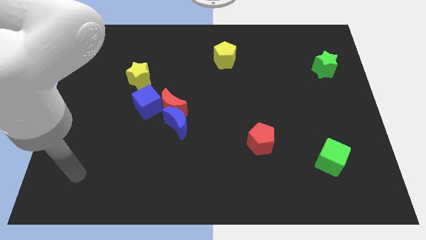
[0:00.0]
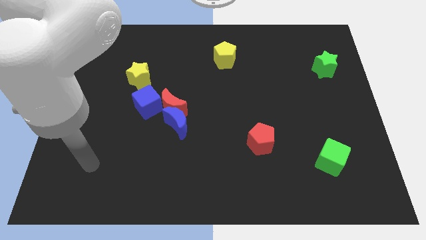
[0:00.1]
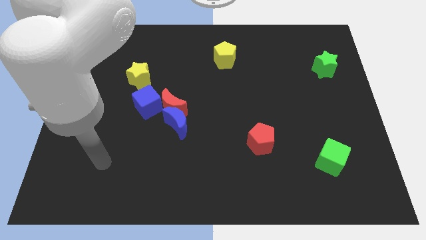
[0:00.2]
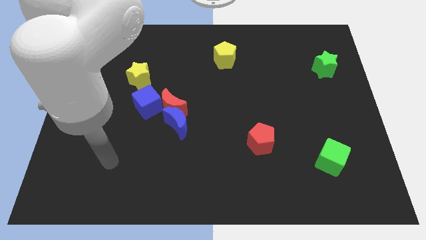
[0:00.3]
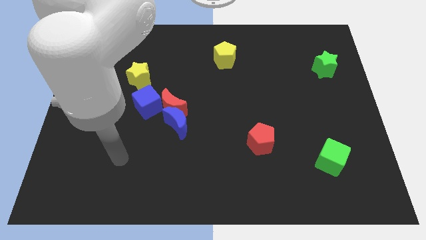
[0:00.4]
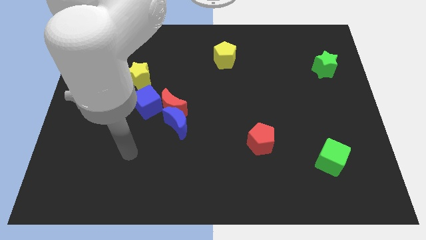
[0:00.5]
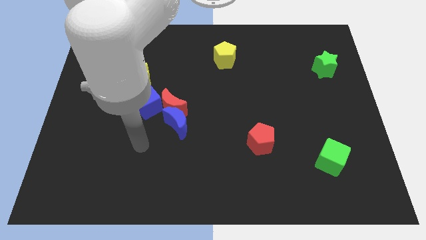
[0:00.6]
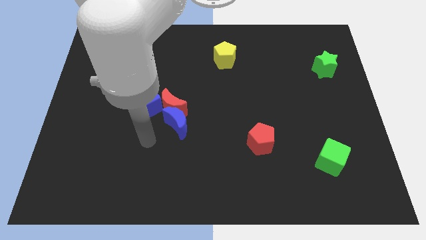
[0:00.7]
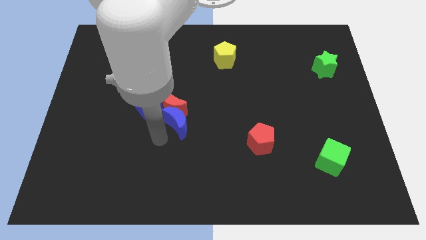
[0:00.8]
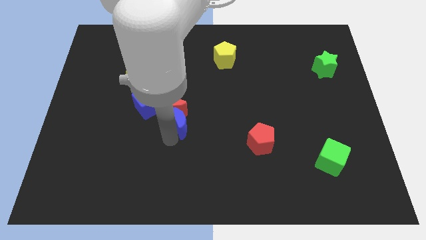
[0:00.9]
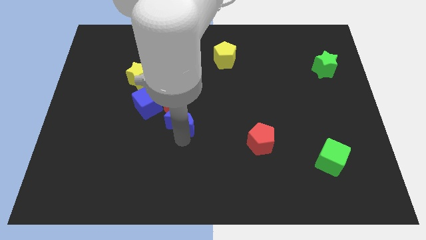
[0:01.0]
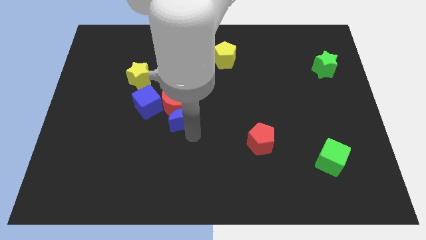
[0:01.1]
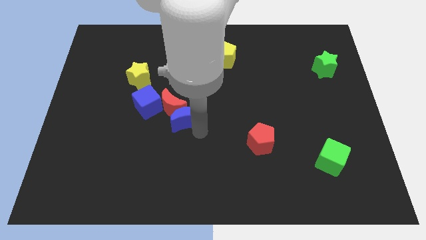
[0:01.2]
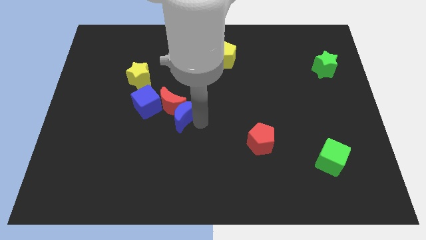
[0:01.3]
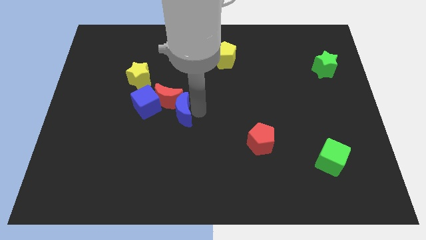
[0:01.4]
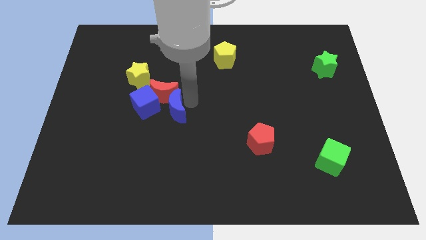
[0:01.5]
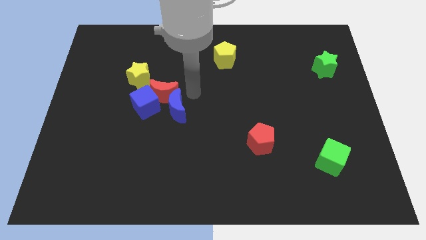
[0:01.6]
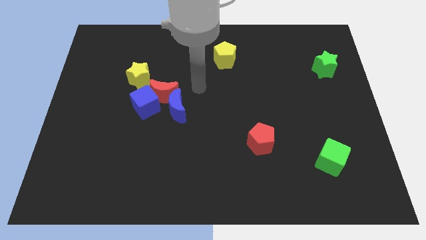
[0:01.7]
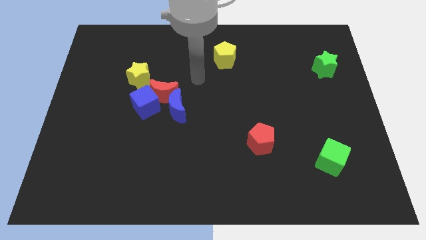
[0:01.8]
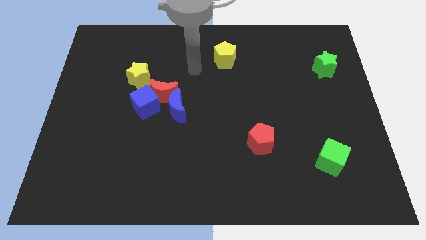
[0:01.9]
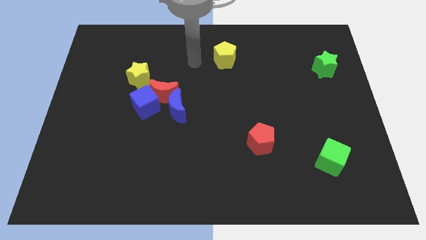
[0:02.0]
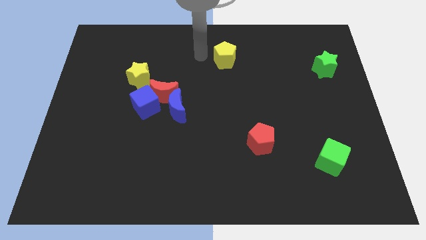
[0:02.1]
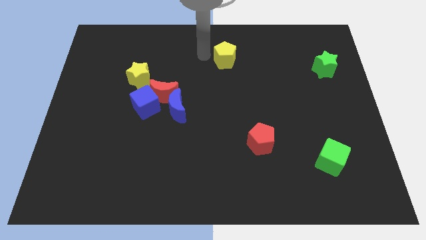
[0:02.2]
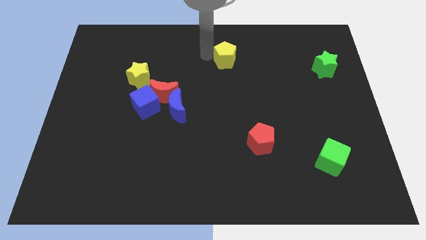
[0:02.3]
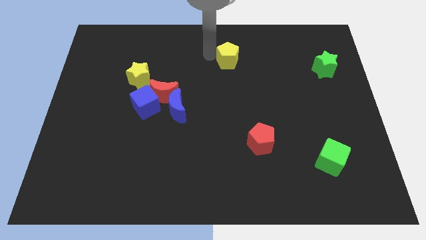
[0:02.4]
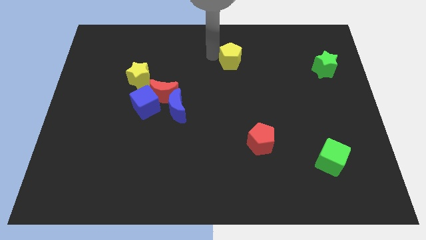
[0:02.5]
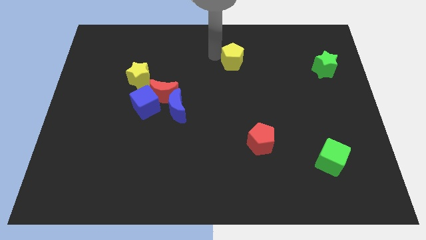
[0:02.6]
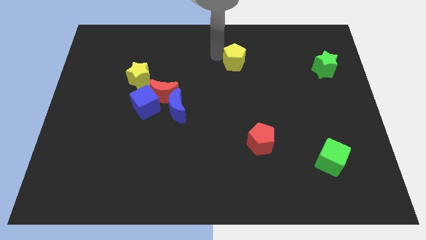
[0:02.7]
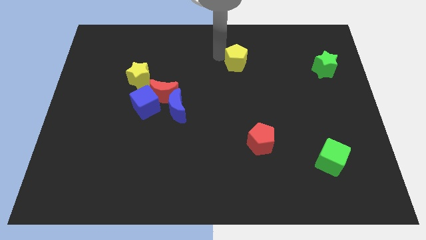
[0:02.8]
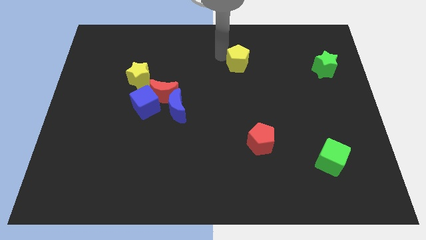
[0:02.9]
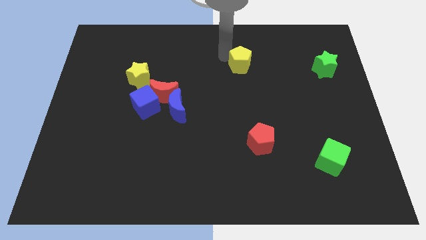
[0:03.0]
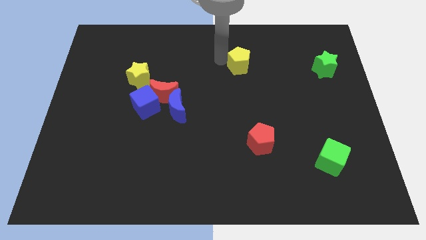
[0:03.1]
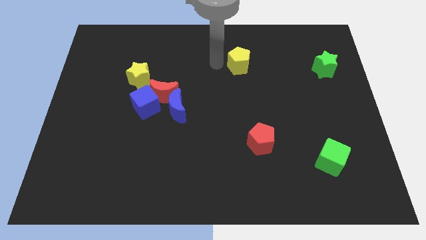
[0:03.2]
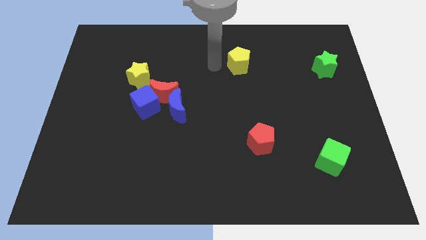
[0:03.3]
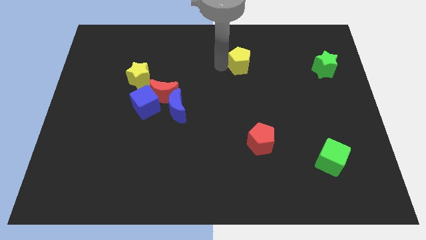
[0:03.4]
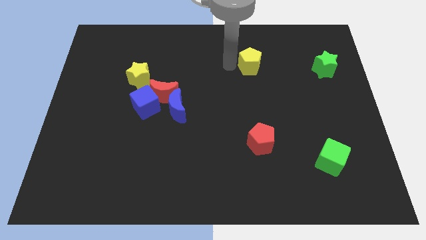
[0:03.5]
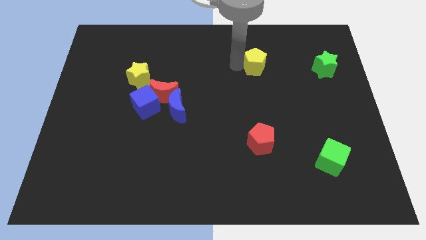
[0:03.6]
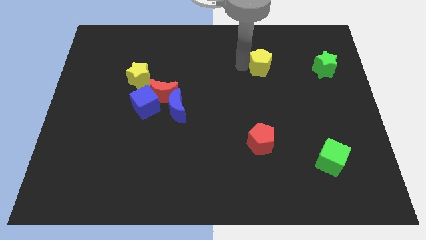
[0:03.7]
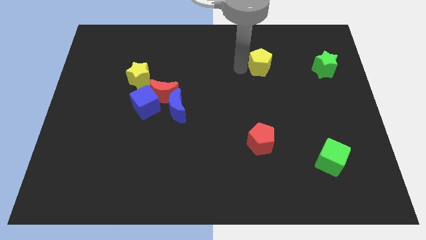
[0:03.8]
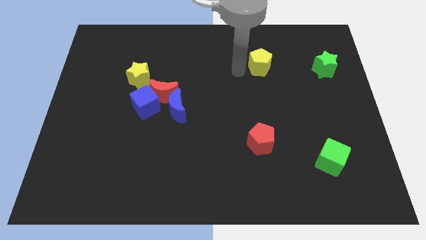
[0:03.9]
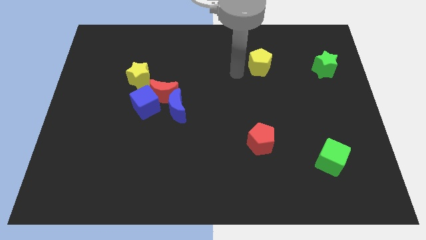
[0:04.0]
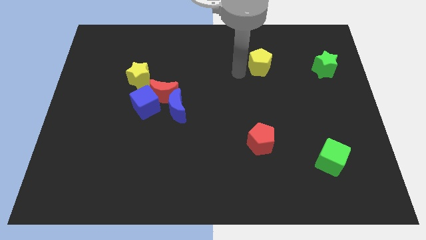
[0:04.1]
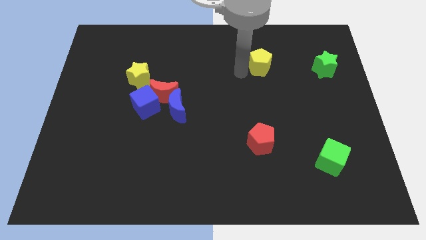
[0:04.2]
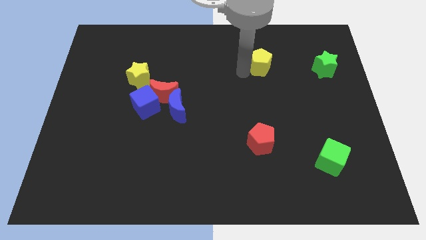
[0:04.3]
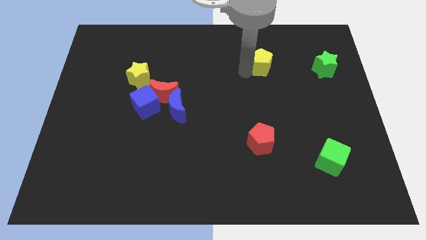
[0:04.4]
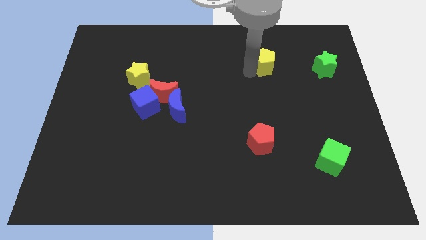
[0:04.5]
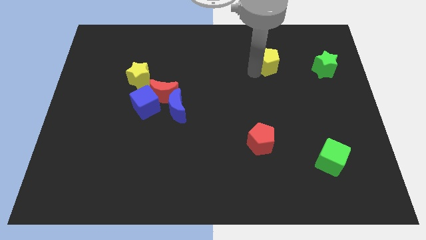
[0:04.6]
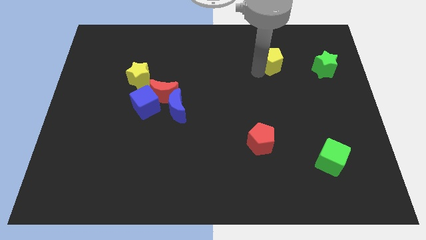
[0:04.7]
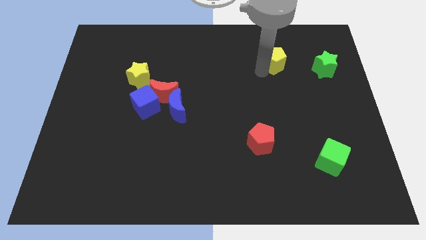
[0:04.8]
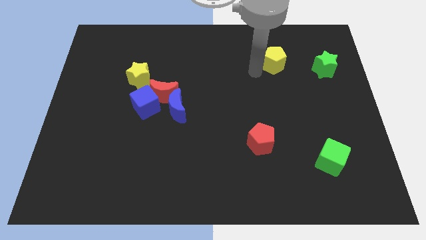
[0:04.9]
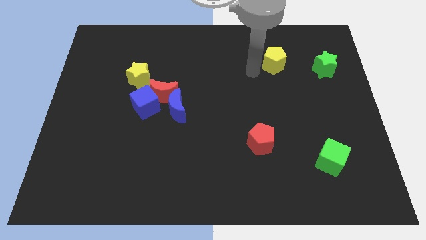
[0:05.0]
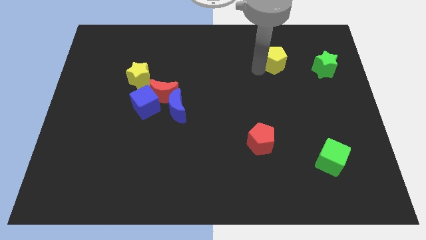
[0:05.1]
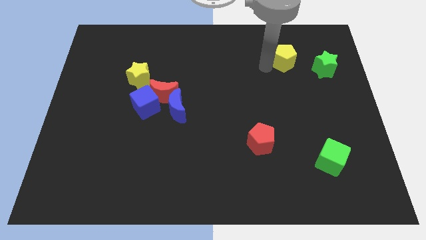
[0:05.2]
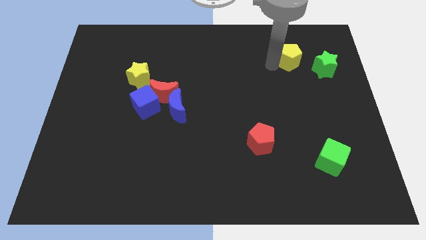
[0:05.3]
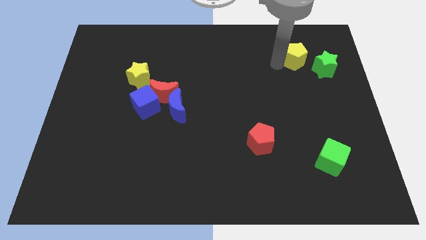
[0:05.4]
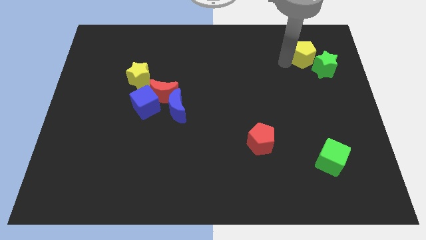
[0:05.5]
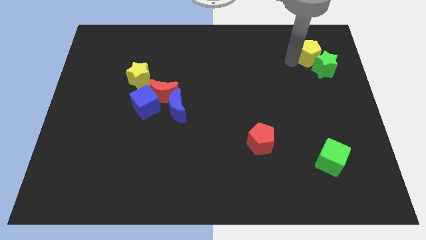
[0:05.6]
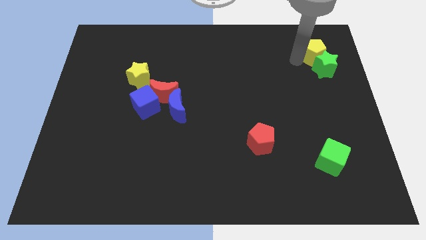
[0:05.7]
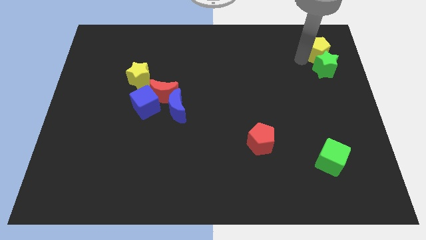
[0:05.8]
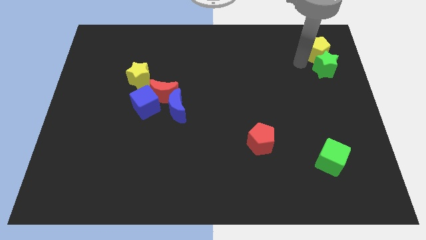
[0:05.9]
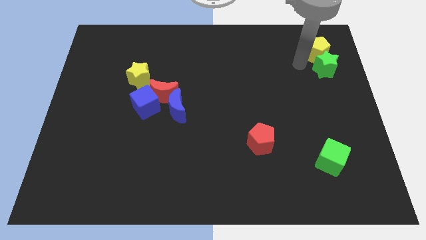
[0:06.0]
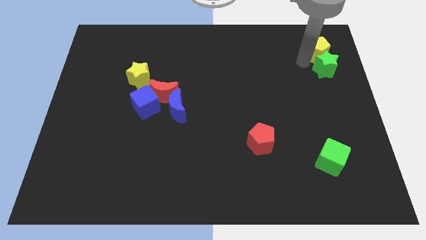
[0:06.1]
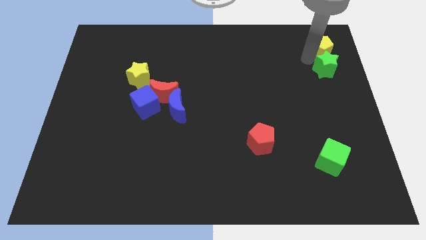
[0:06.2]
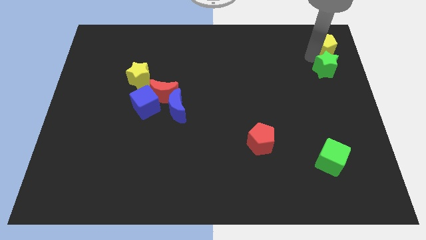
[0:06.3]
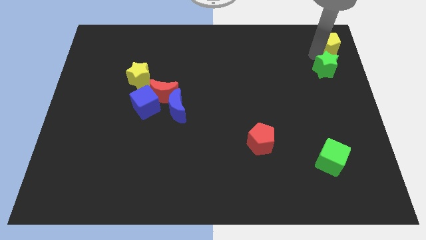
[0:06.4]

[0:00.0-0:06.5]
push the yellow pentagon to the top right corner
